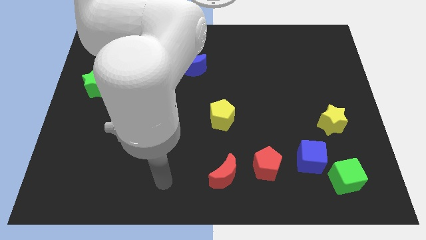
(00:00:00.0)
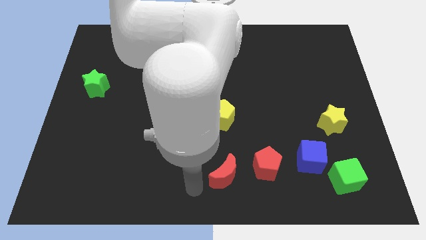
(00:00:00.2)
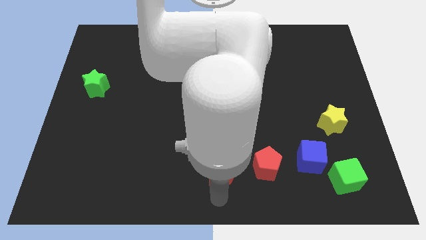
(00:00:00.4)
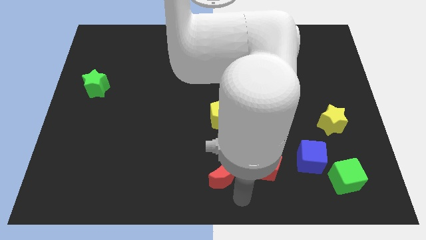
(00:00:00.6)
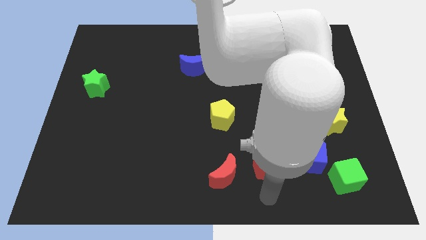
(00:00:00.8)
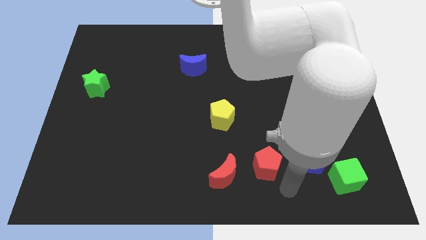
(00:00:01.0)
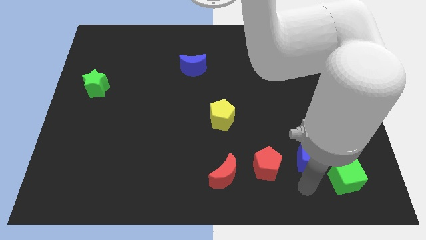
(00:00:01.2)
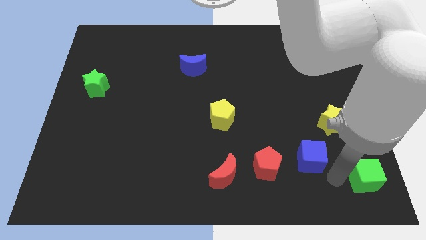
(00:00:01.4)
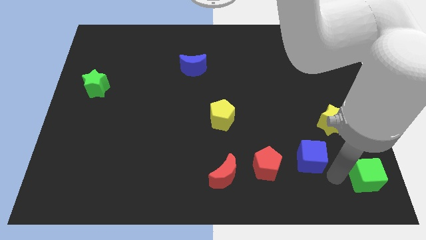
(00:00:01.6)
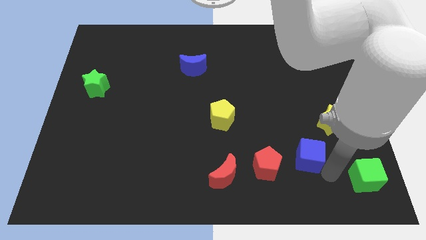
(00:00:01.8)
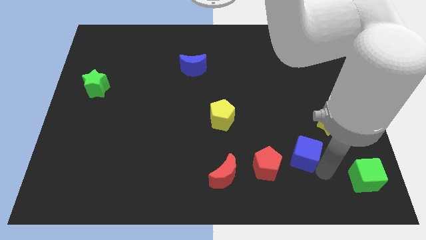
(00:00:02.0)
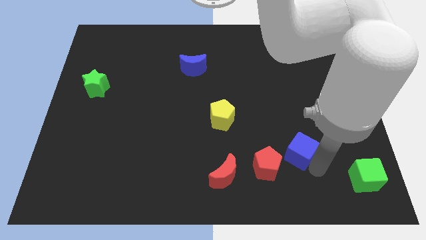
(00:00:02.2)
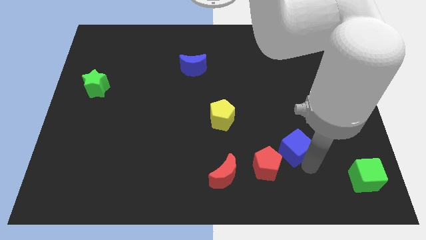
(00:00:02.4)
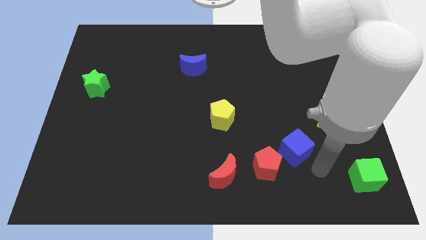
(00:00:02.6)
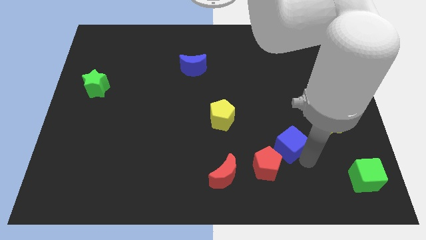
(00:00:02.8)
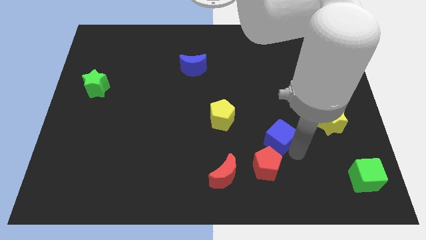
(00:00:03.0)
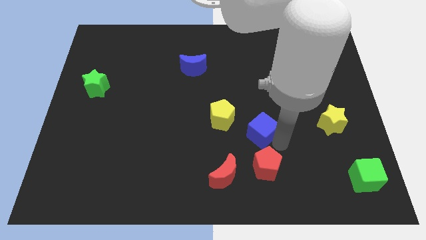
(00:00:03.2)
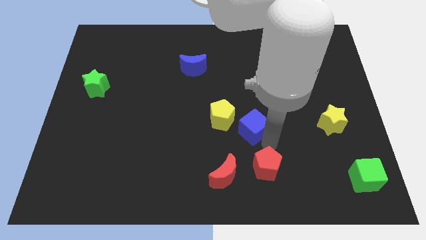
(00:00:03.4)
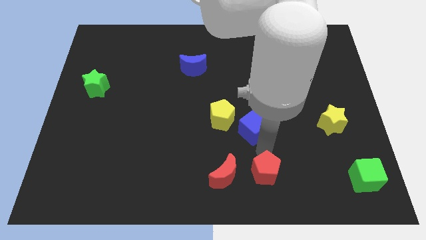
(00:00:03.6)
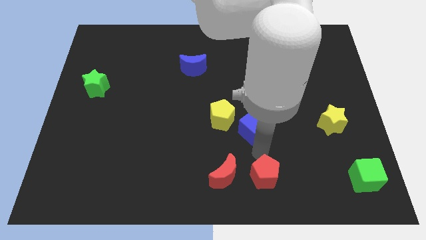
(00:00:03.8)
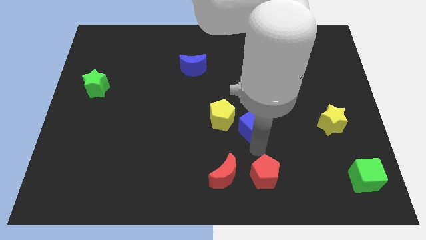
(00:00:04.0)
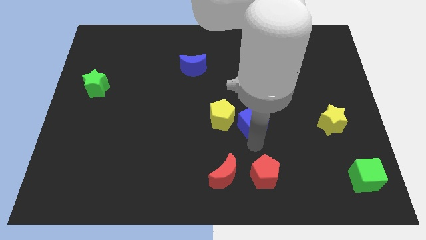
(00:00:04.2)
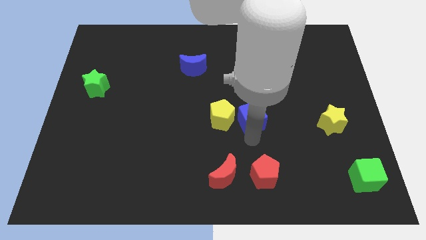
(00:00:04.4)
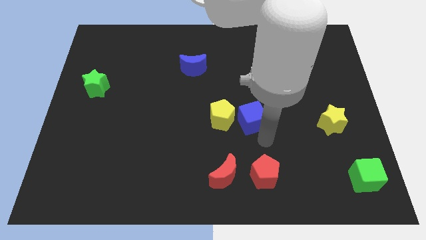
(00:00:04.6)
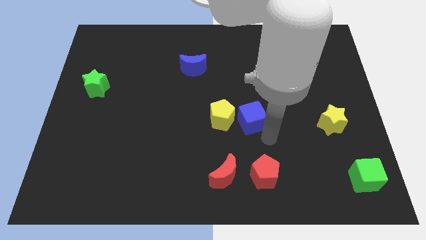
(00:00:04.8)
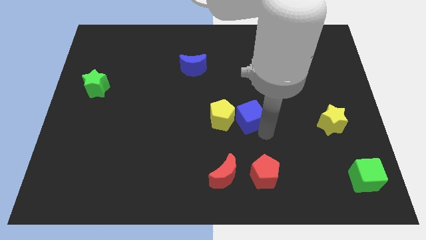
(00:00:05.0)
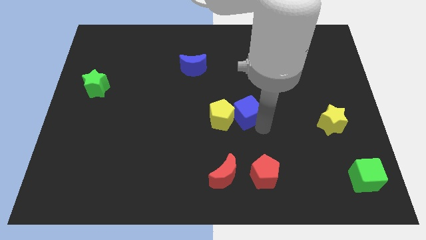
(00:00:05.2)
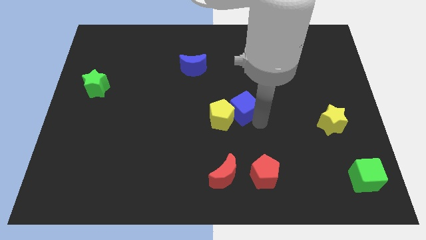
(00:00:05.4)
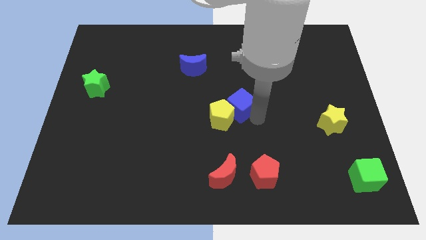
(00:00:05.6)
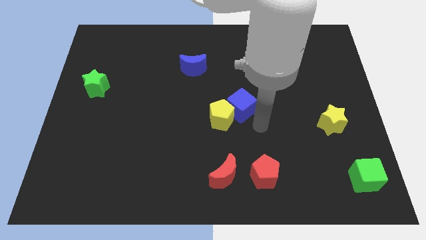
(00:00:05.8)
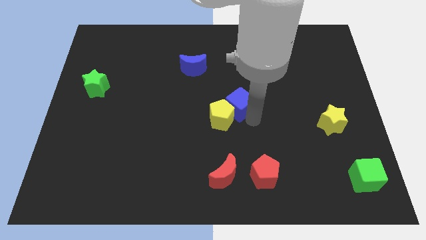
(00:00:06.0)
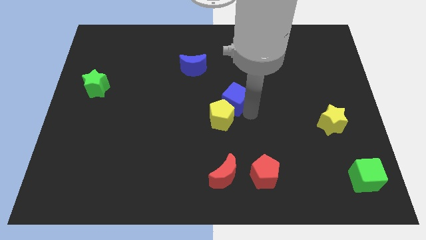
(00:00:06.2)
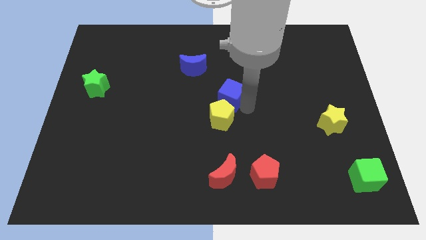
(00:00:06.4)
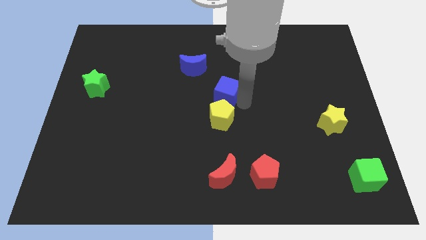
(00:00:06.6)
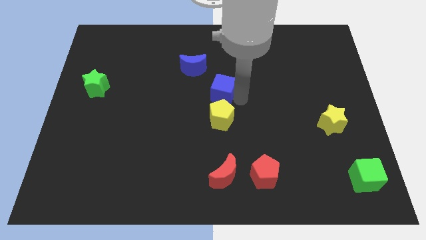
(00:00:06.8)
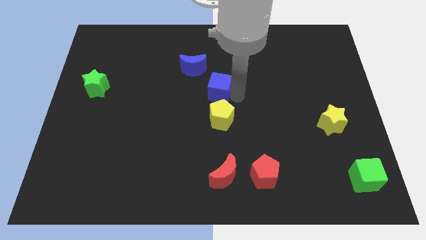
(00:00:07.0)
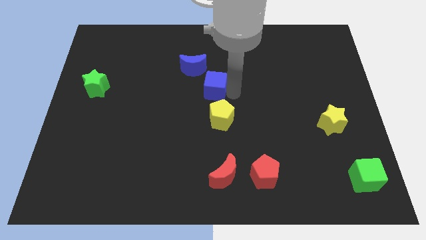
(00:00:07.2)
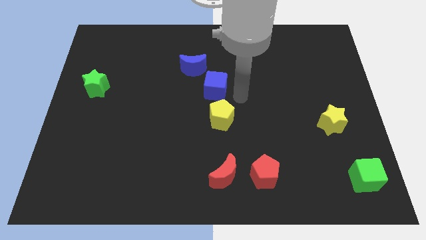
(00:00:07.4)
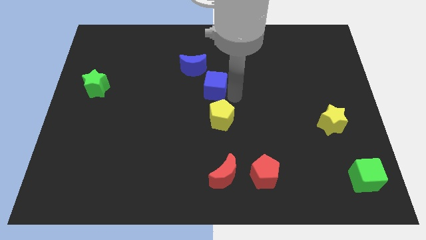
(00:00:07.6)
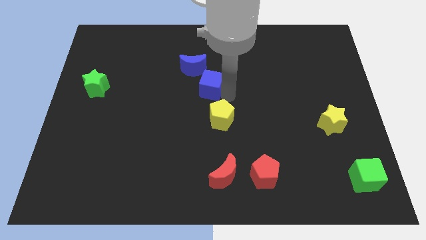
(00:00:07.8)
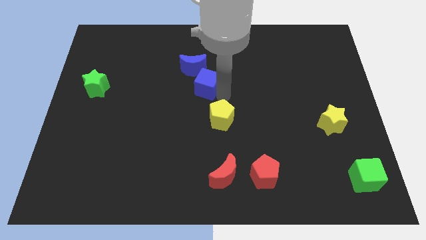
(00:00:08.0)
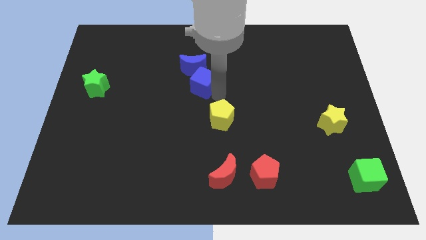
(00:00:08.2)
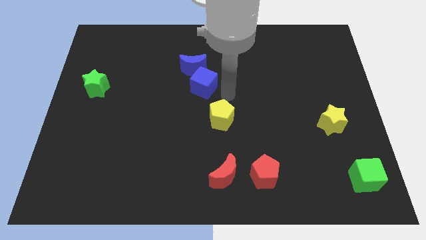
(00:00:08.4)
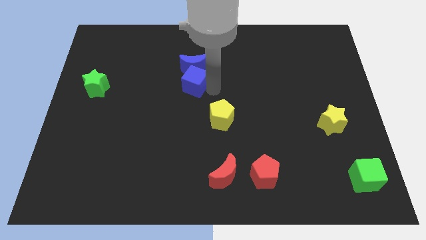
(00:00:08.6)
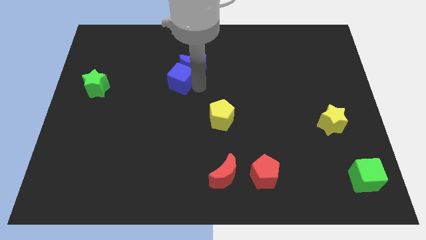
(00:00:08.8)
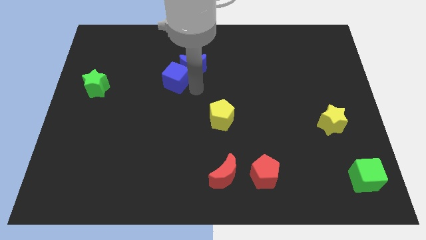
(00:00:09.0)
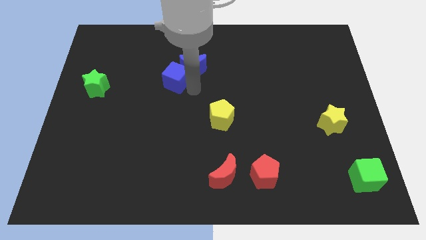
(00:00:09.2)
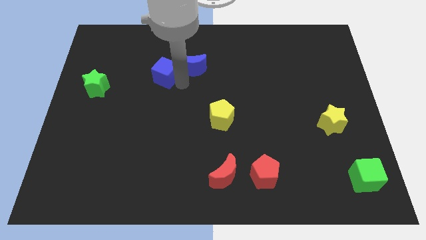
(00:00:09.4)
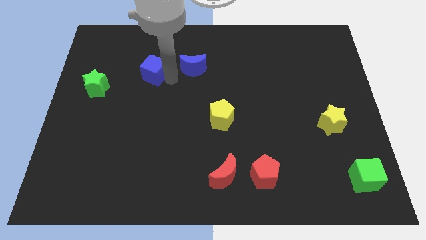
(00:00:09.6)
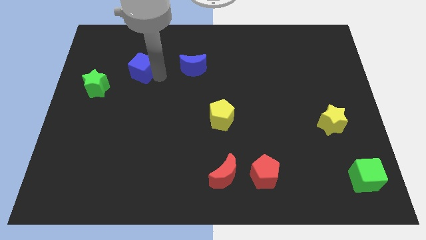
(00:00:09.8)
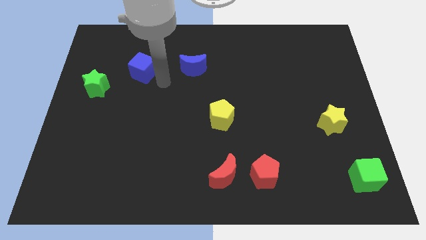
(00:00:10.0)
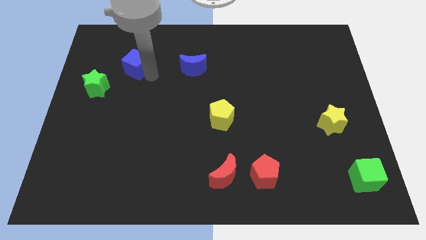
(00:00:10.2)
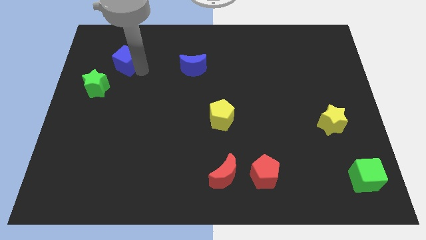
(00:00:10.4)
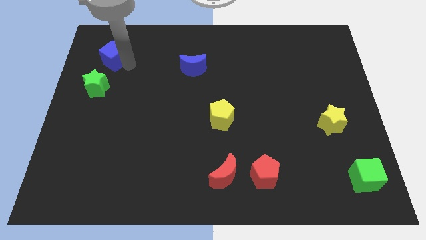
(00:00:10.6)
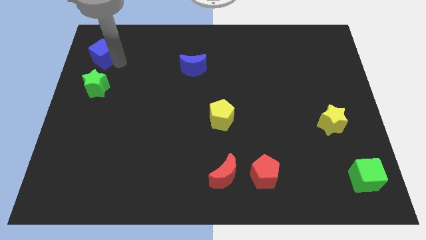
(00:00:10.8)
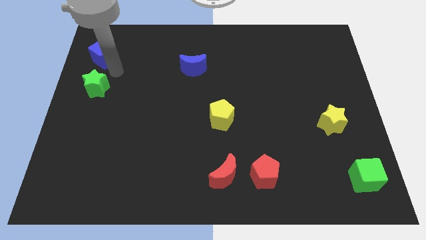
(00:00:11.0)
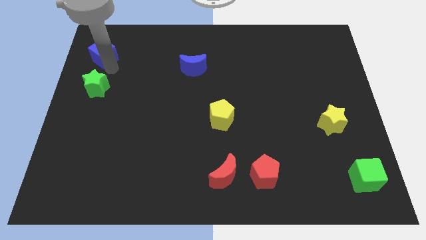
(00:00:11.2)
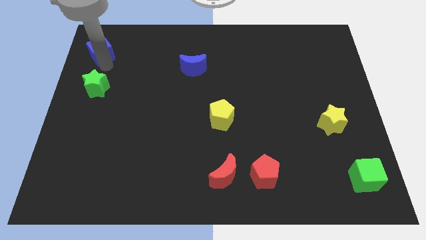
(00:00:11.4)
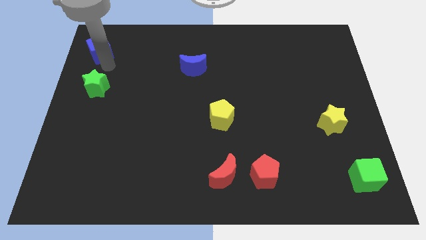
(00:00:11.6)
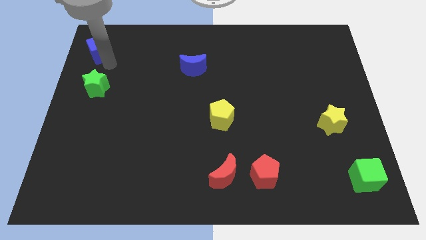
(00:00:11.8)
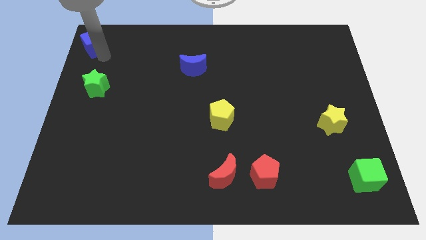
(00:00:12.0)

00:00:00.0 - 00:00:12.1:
slide the blue cube to the upper left corner
